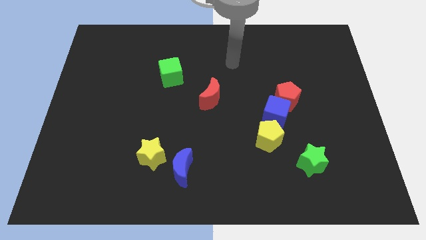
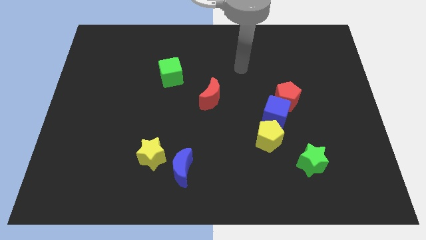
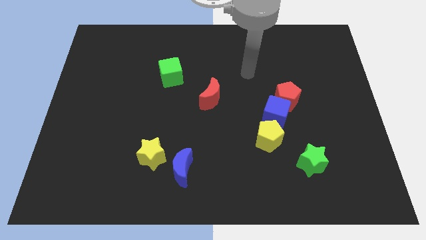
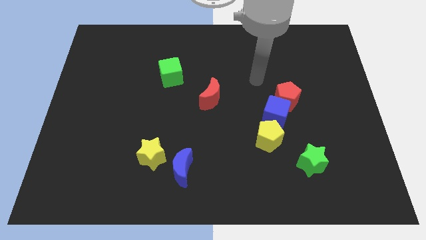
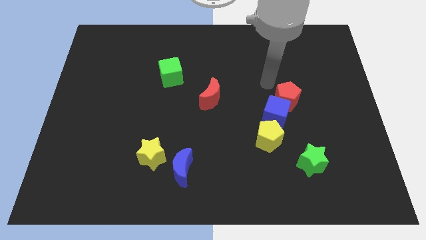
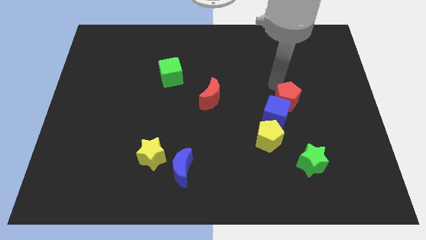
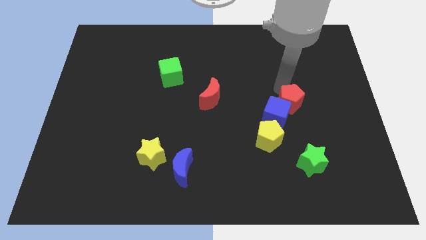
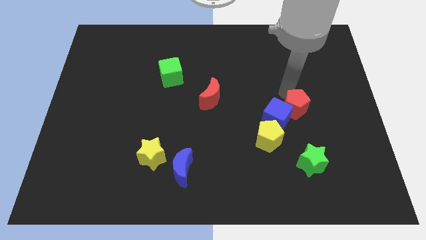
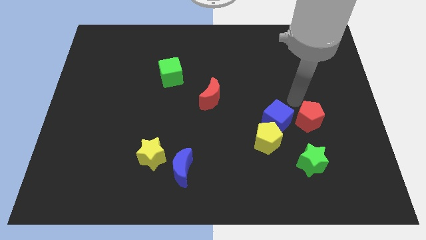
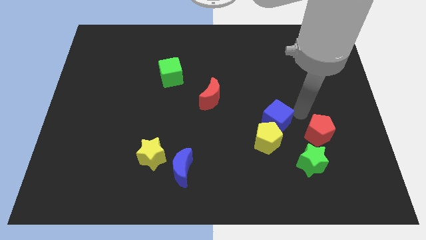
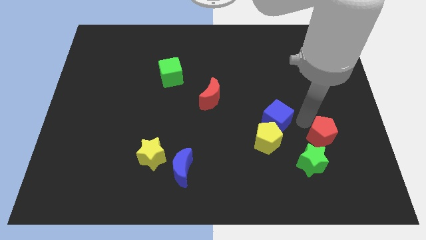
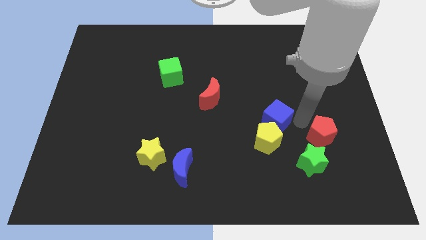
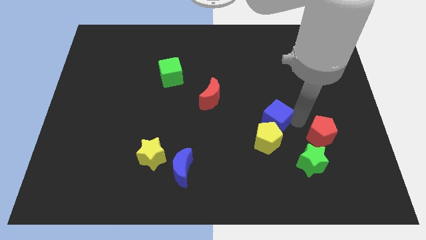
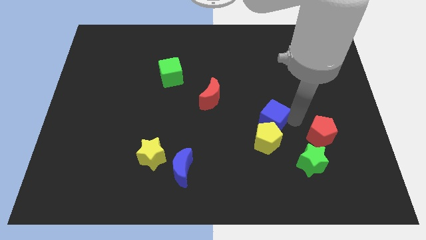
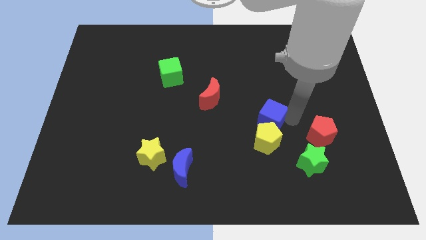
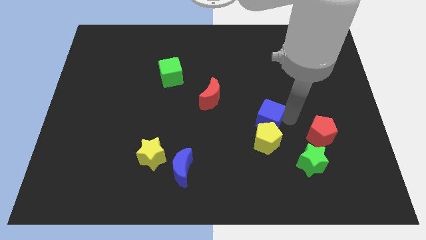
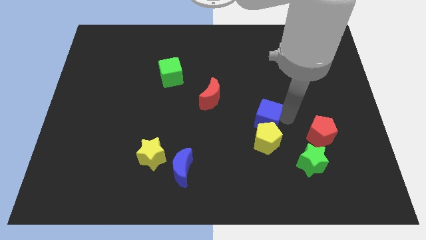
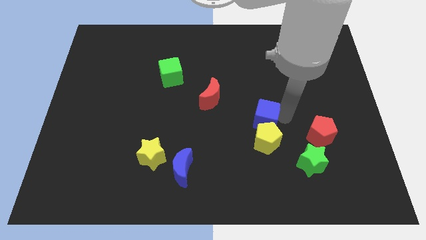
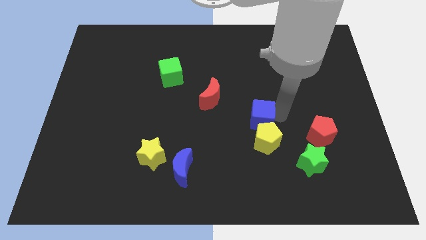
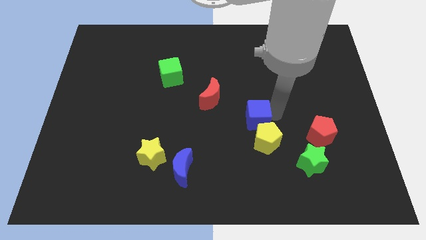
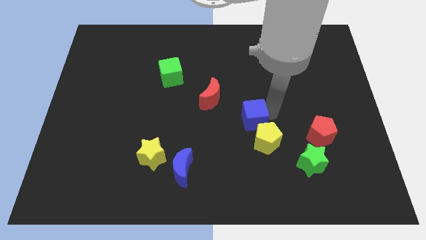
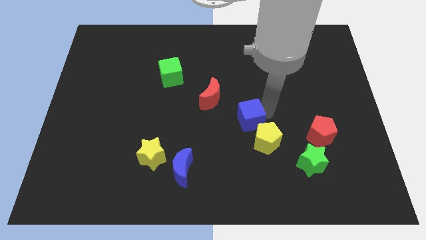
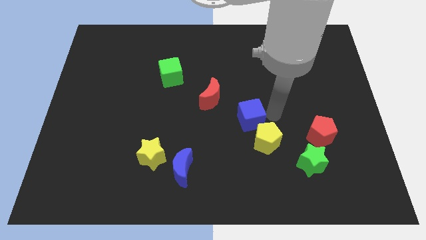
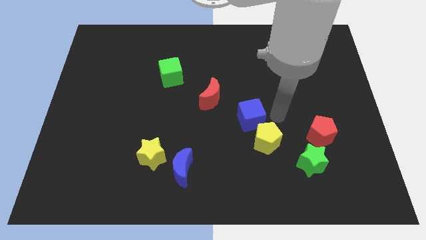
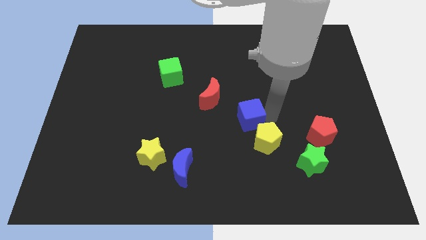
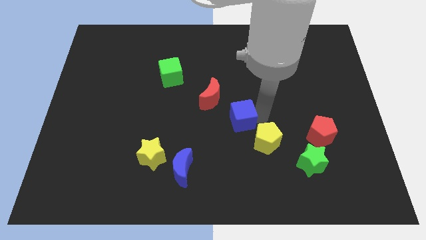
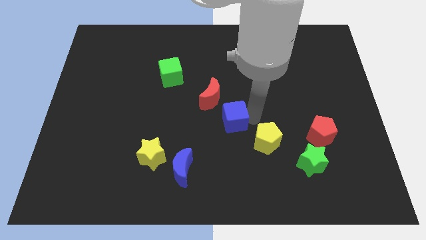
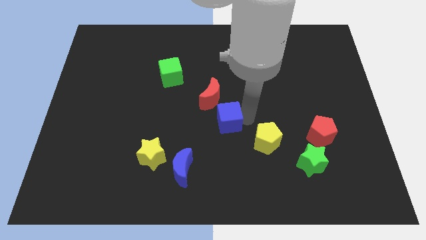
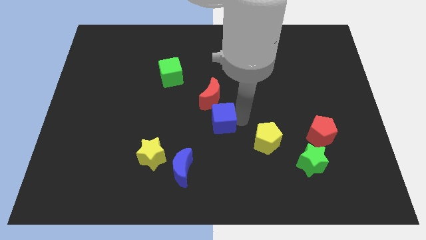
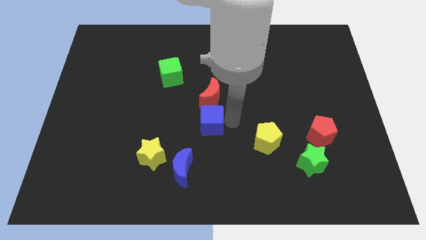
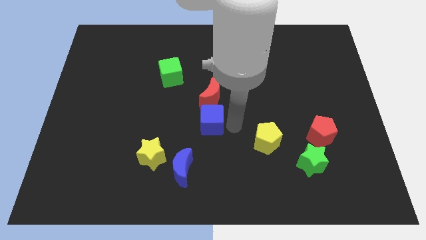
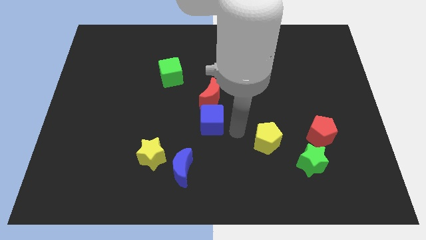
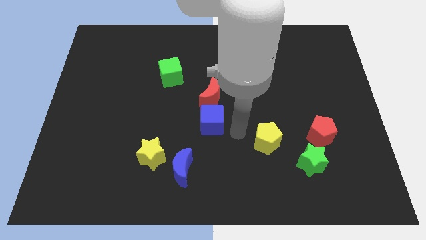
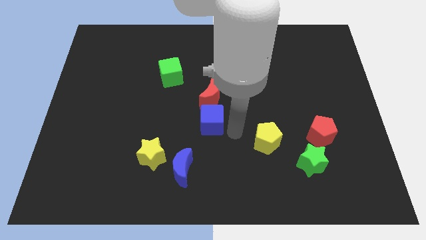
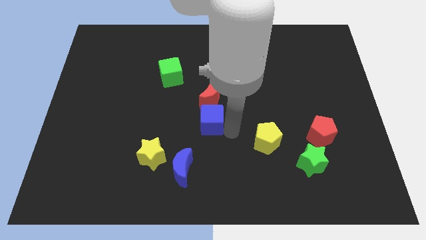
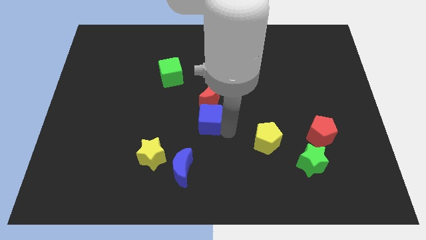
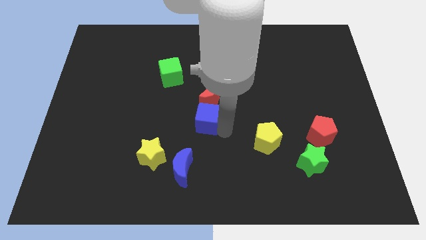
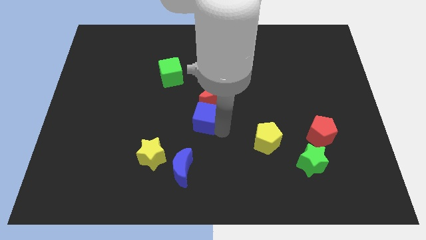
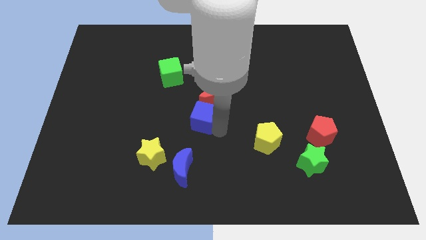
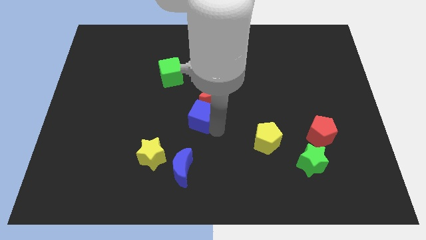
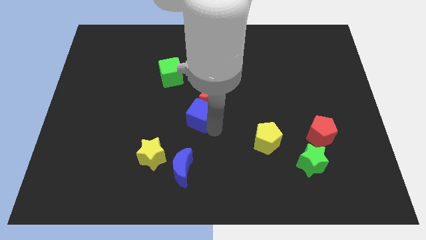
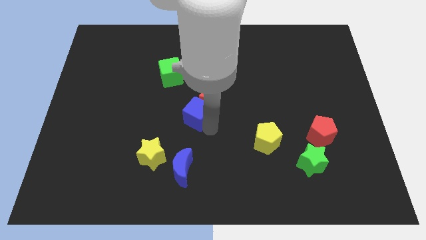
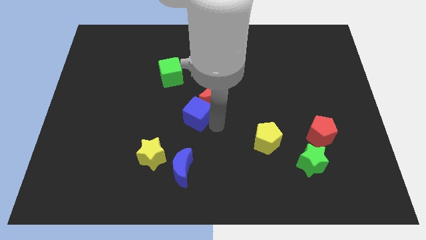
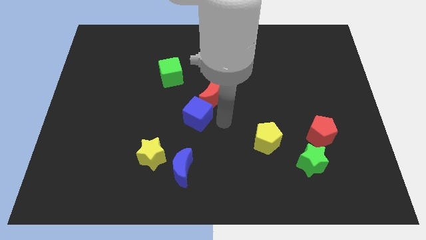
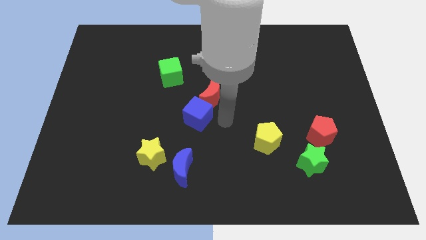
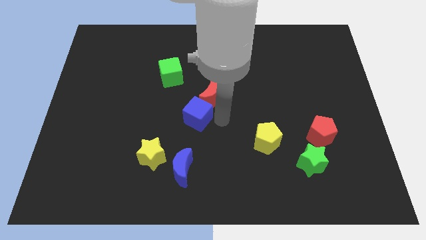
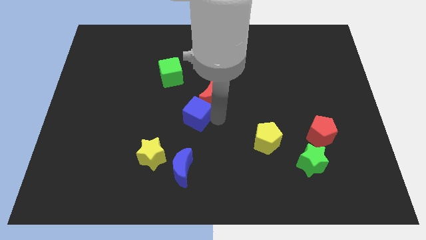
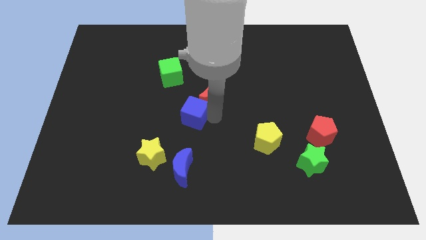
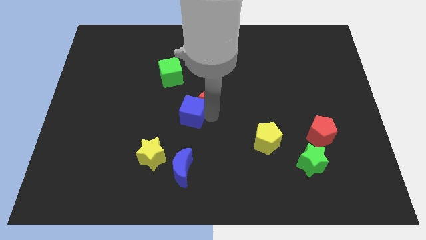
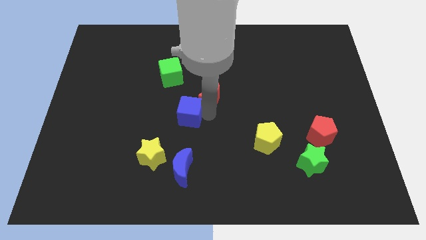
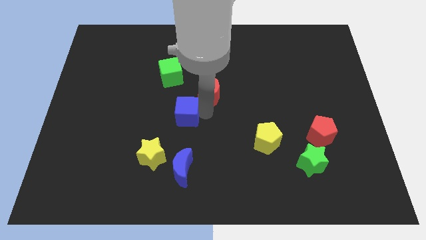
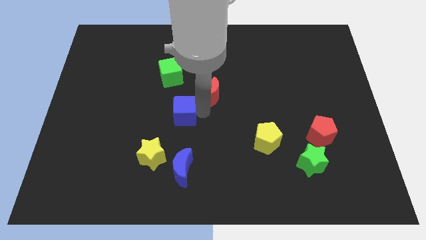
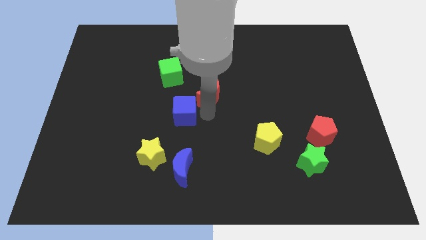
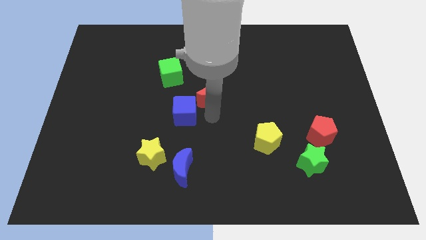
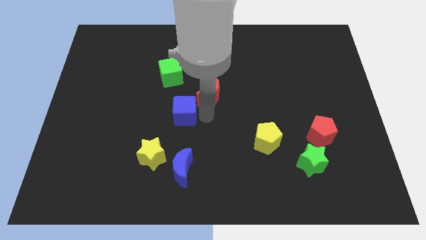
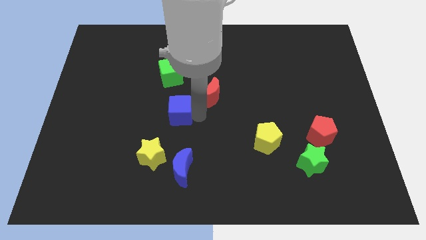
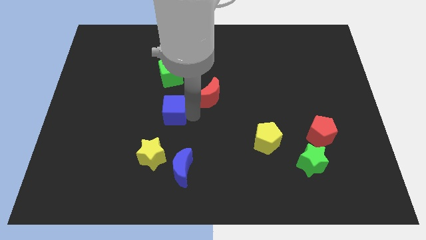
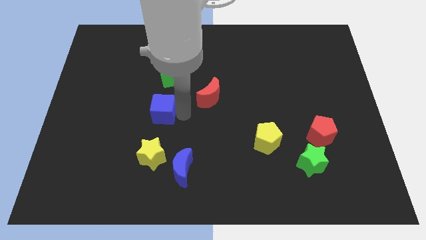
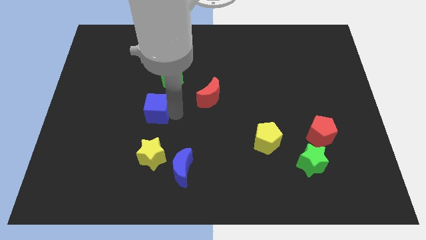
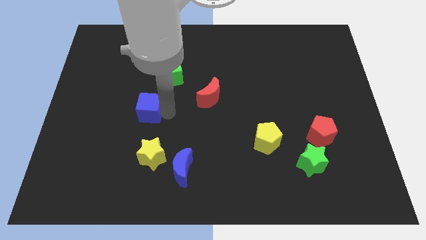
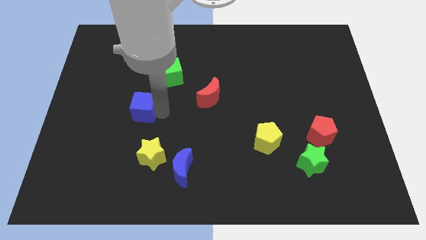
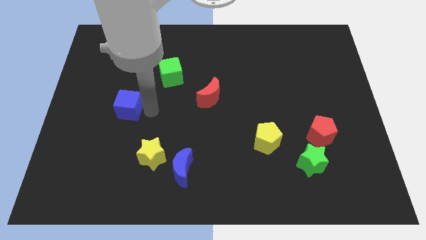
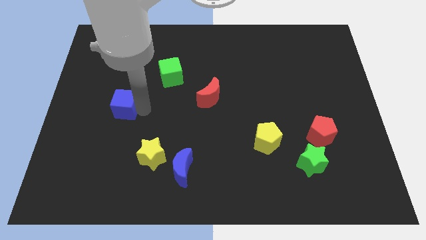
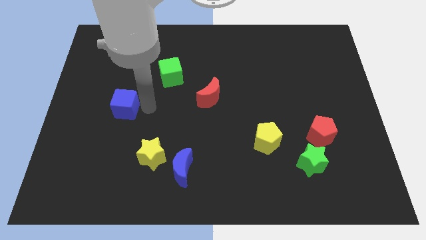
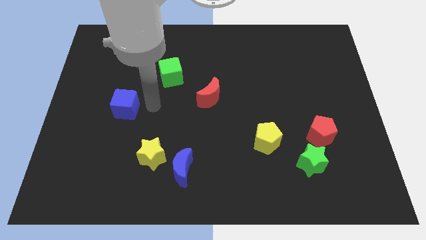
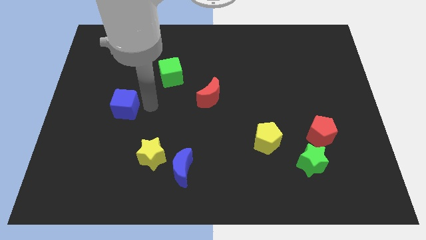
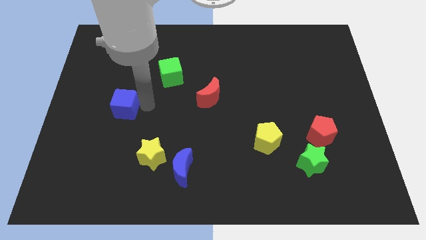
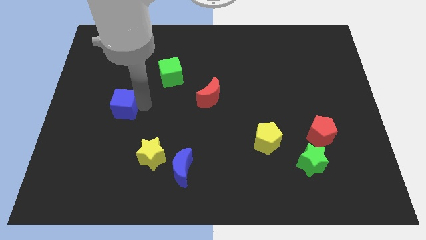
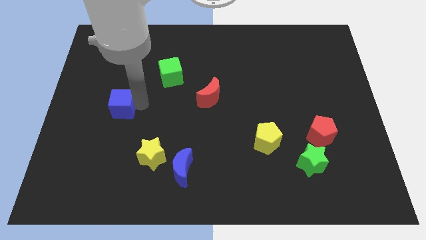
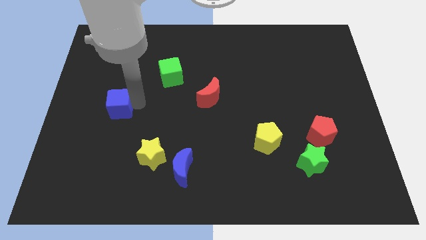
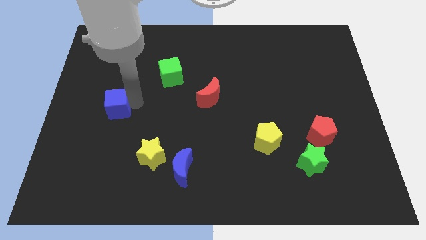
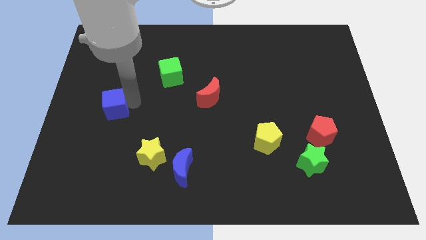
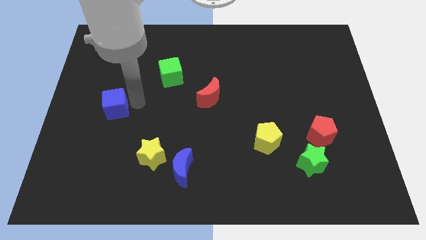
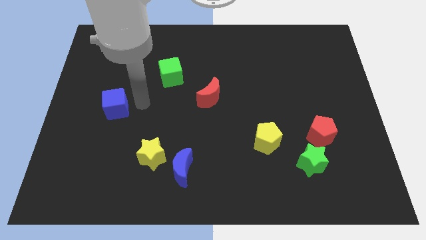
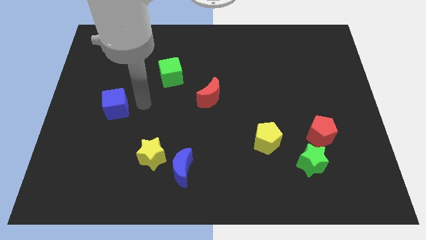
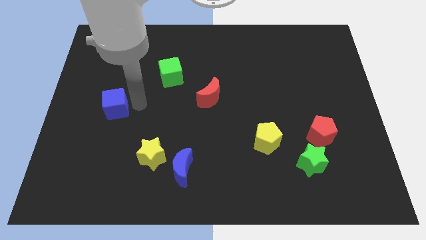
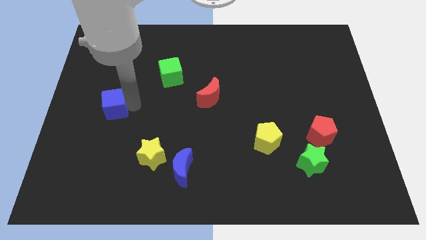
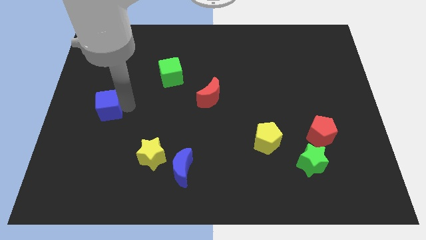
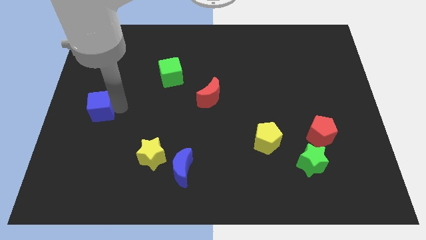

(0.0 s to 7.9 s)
put the blue cube to the left side of the board
